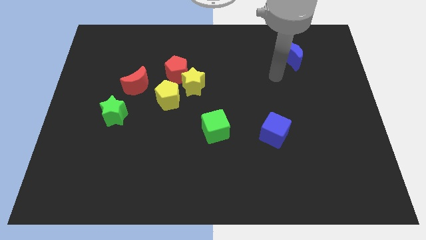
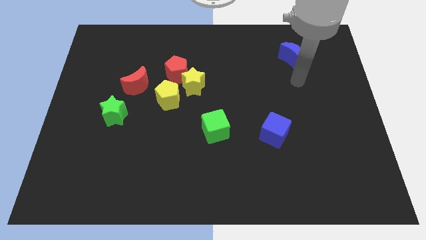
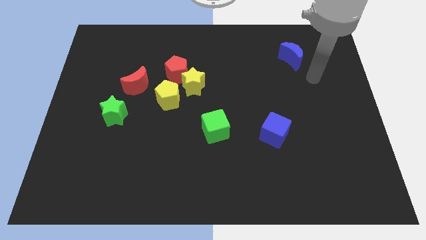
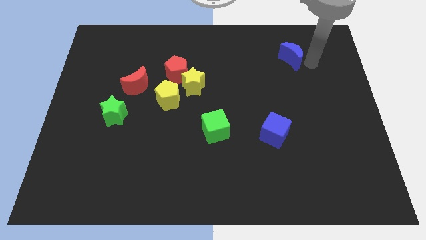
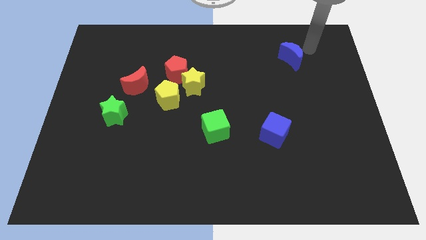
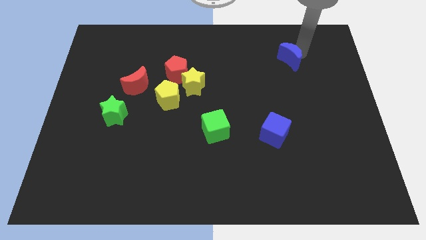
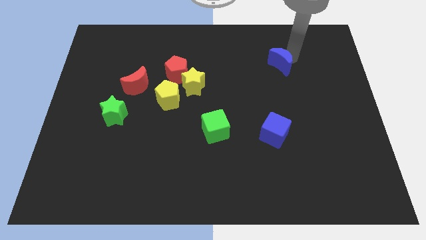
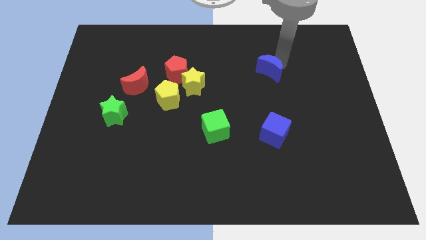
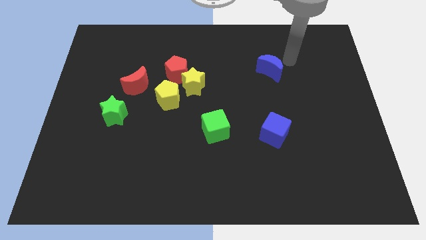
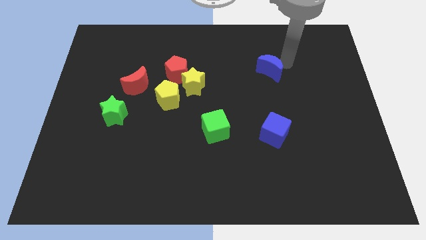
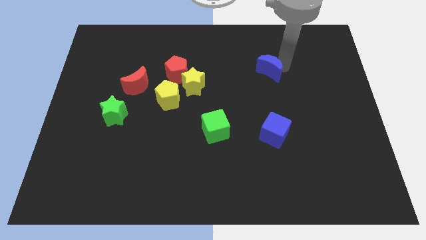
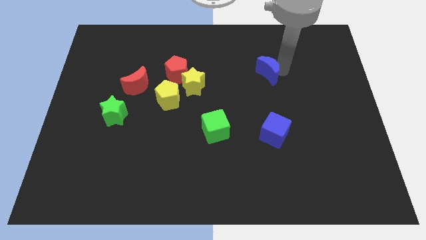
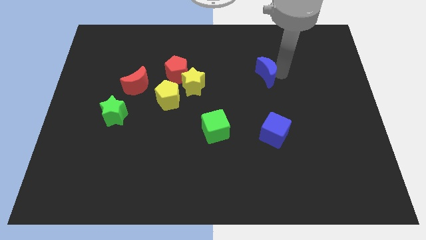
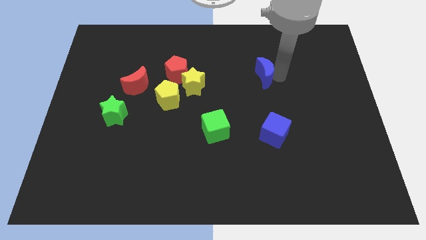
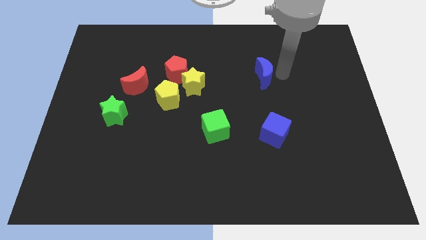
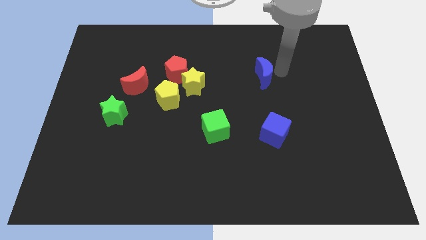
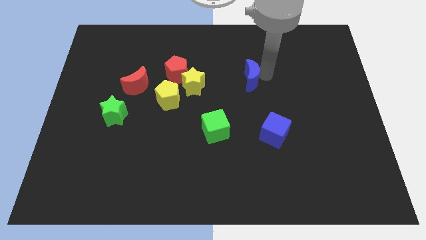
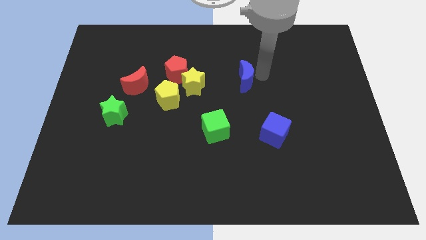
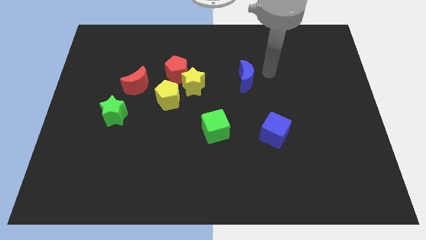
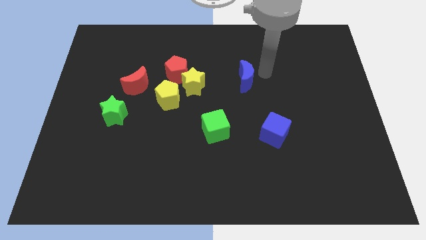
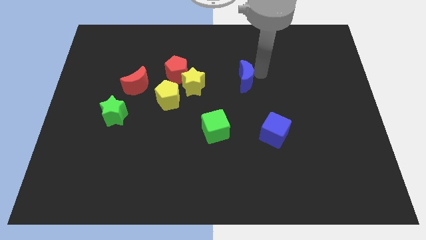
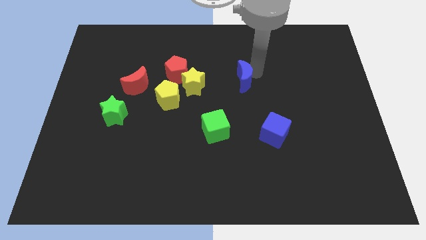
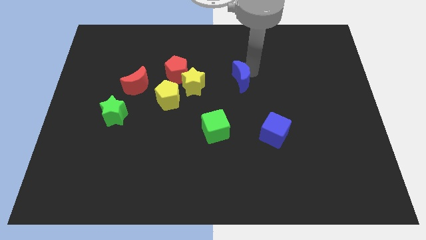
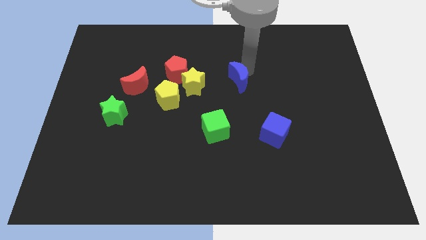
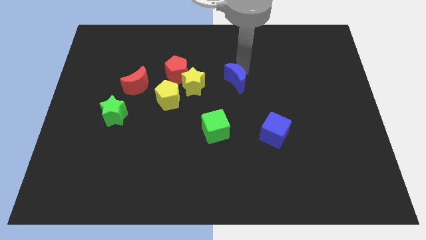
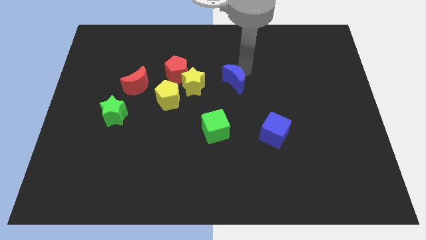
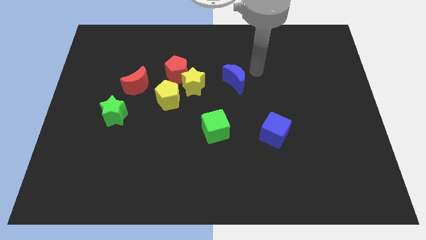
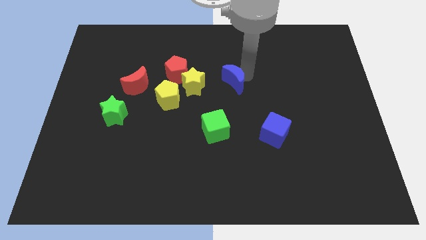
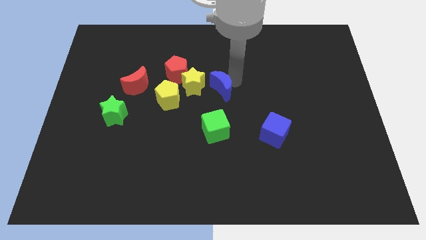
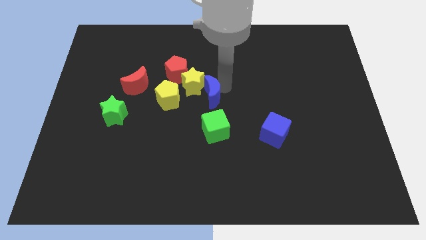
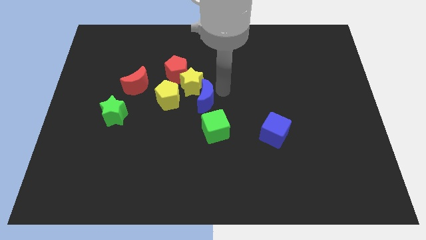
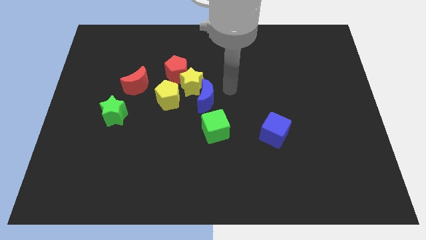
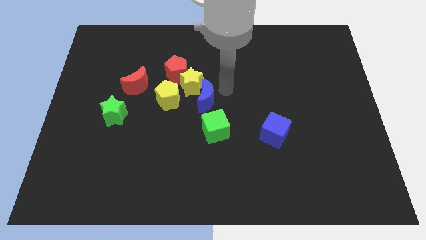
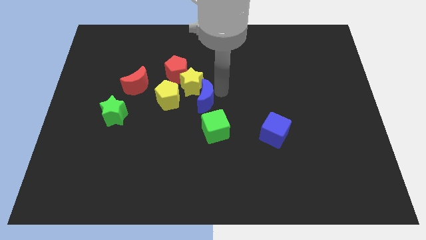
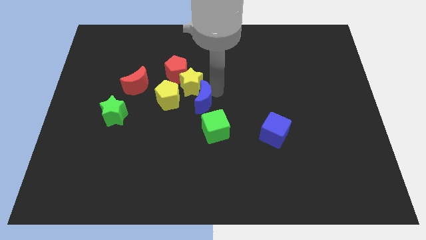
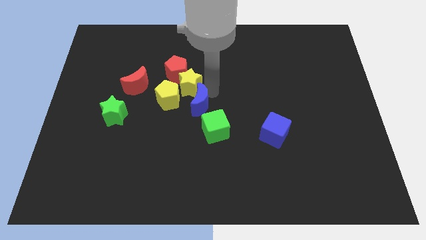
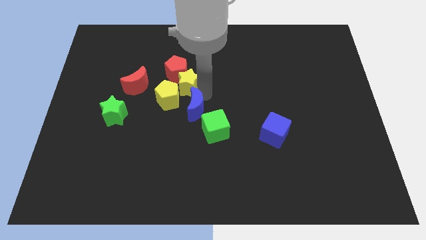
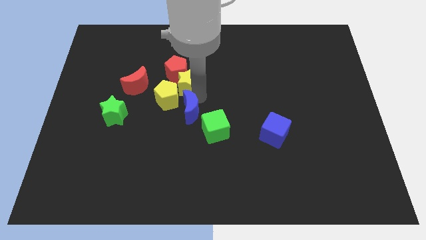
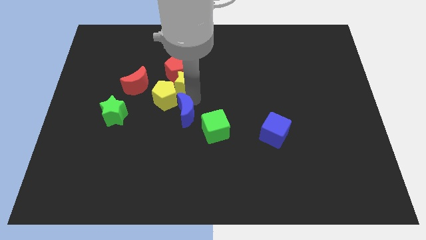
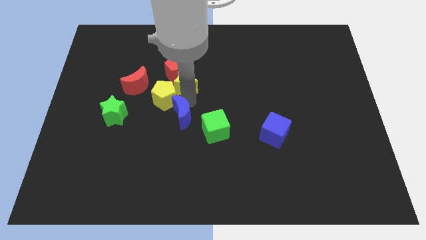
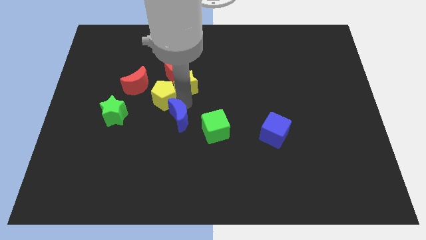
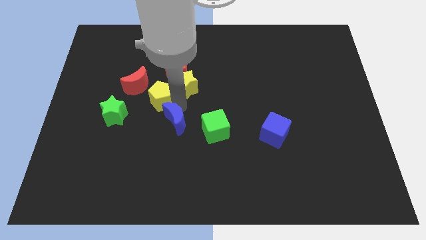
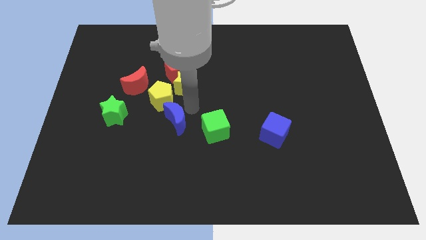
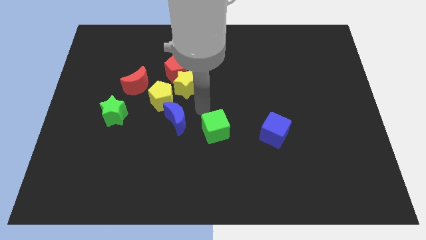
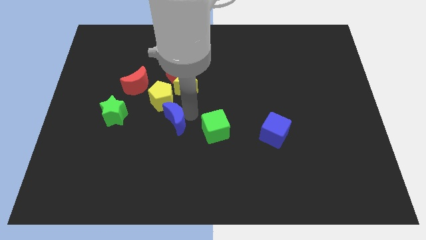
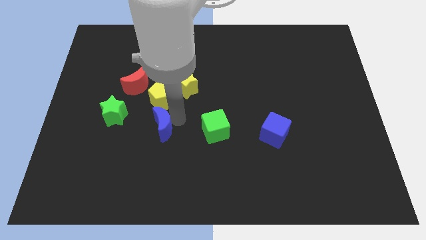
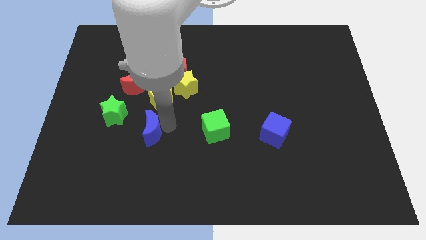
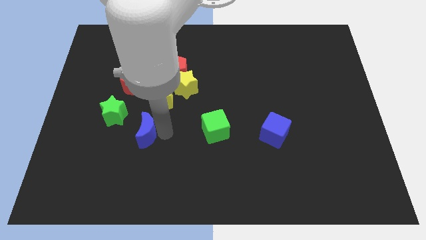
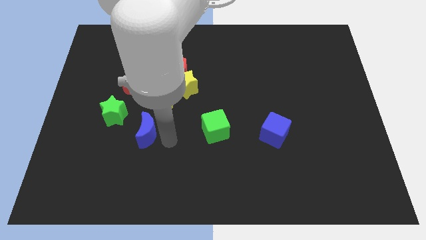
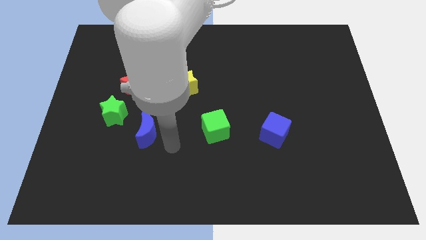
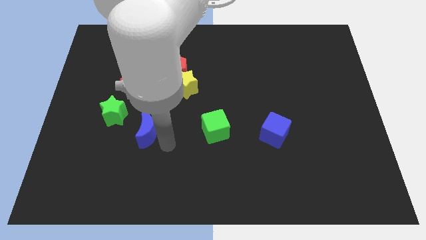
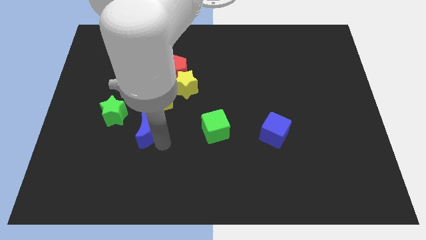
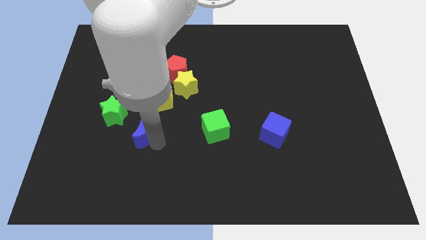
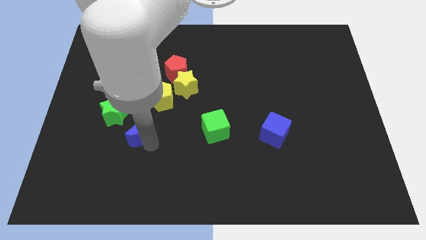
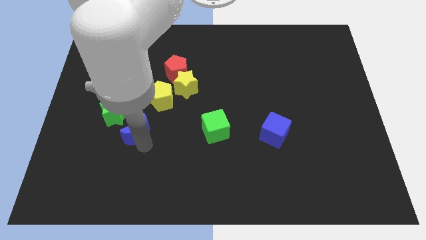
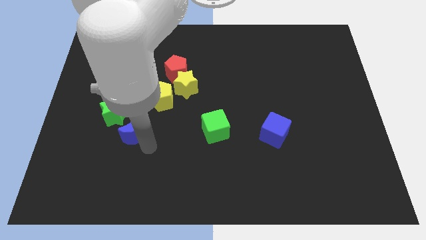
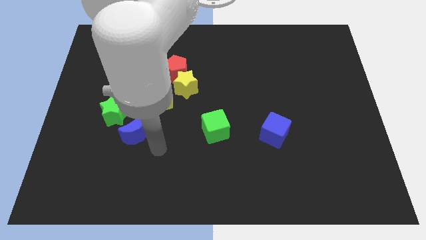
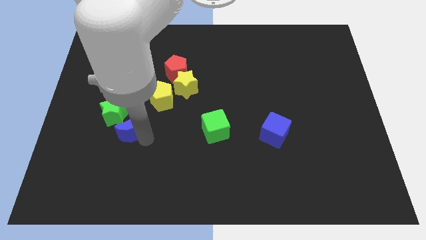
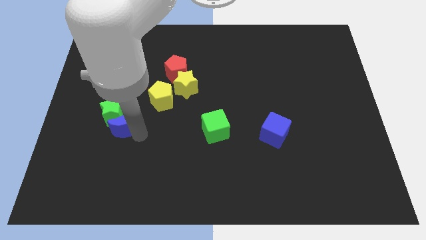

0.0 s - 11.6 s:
slide the blue moon to the green star

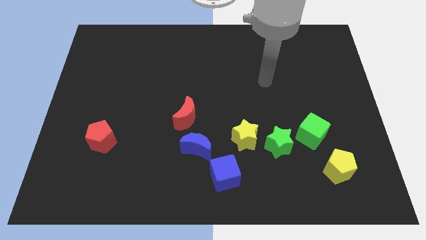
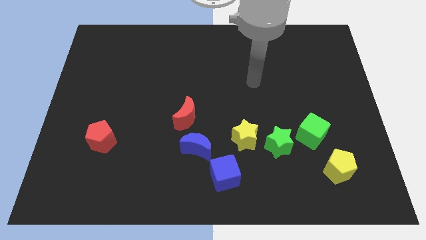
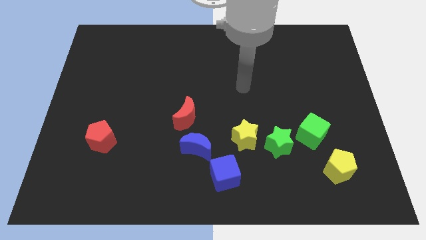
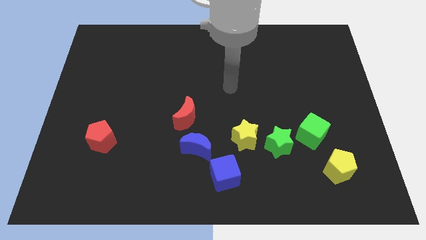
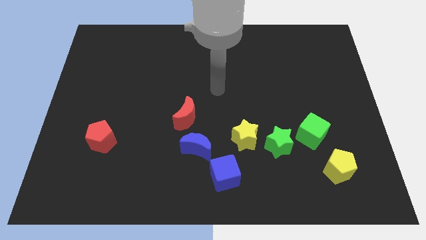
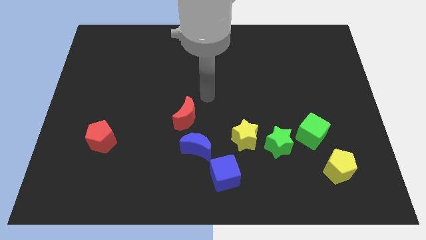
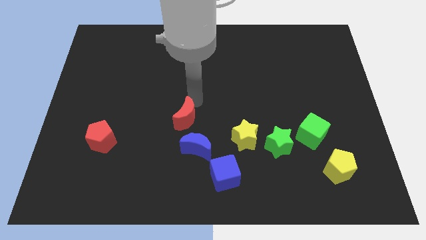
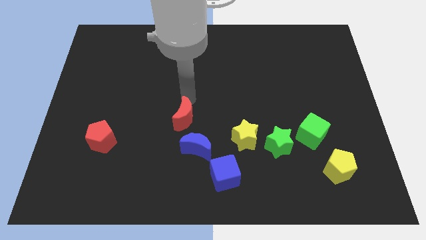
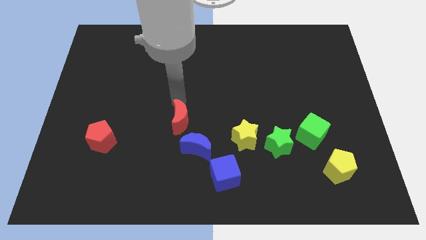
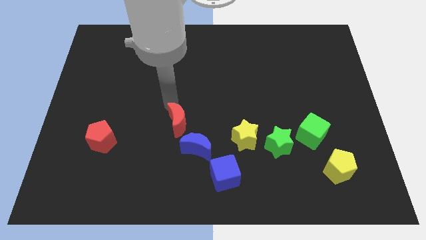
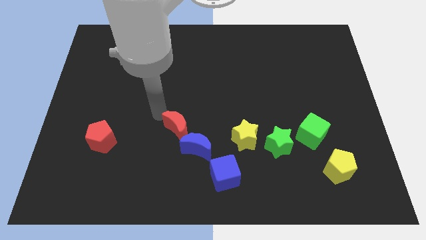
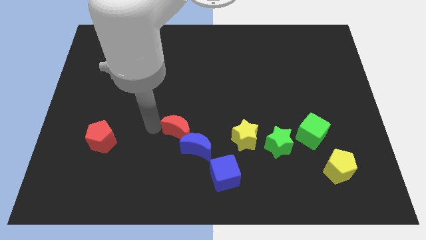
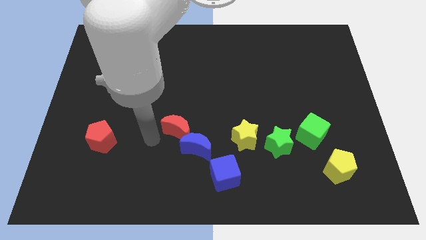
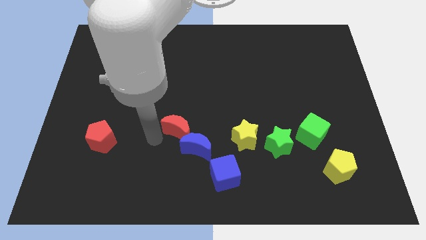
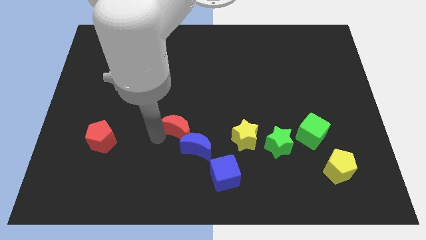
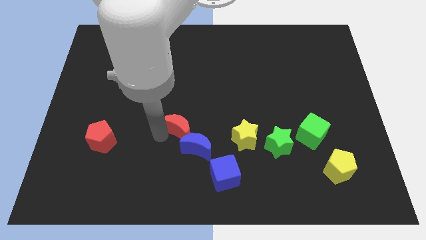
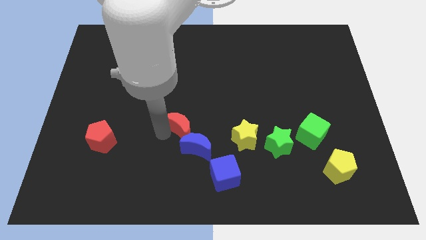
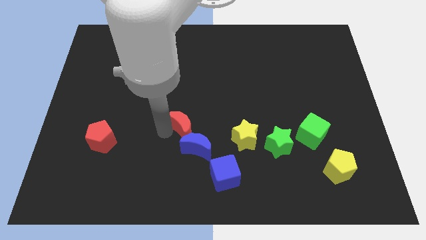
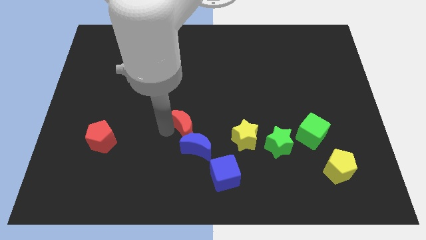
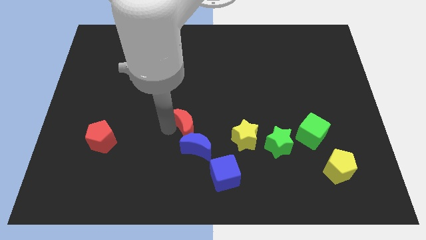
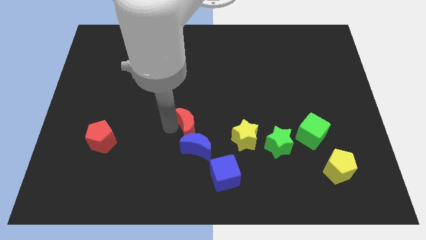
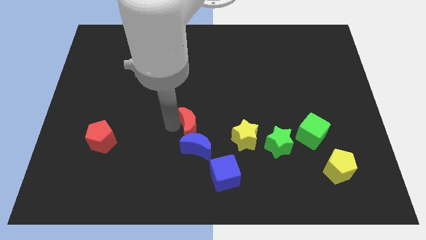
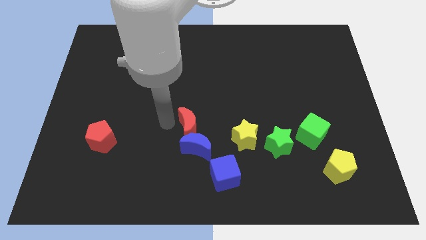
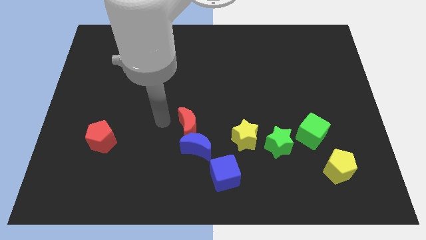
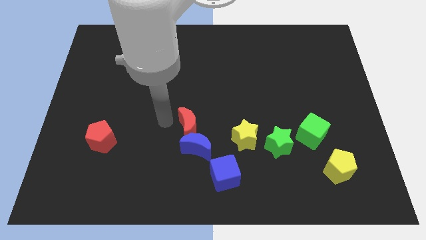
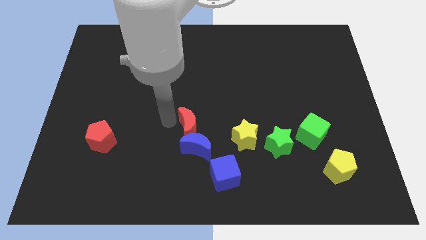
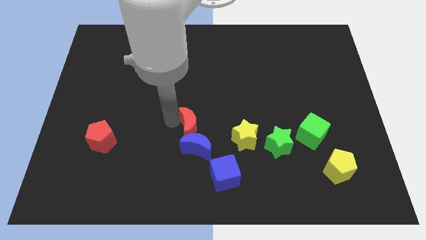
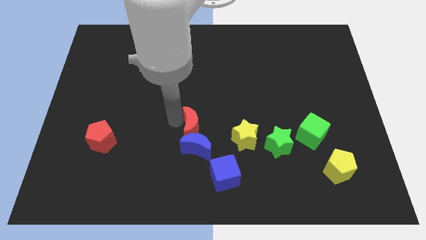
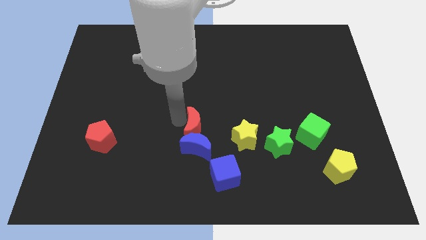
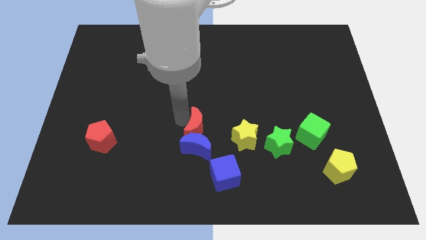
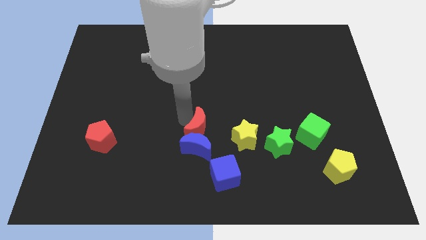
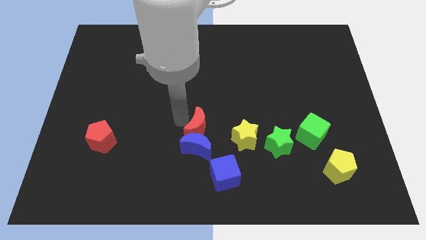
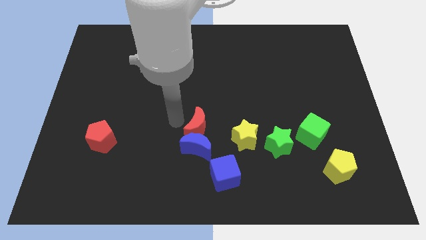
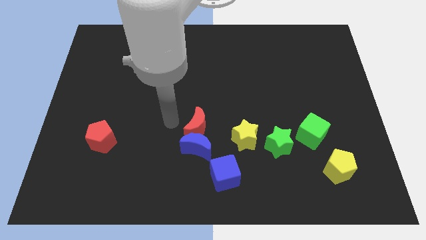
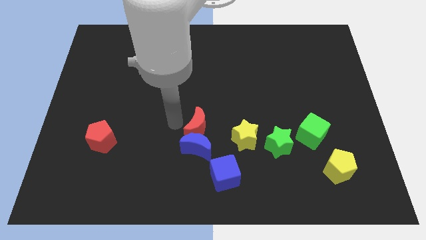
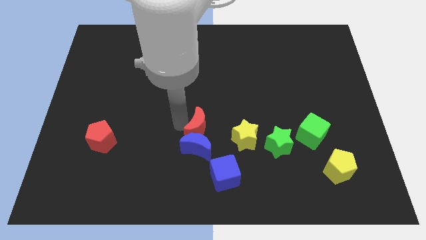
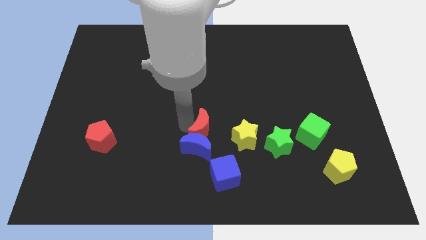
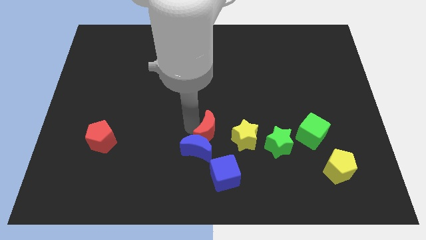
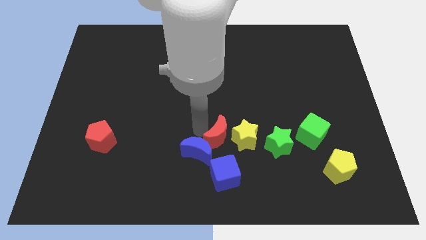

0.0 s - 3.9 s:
move the red moon close to the yellow star
